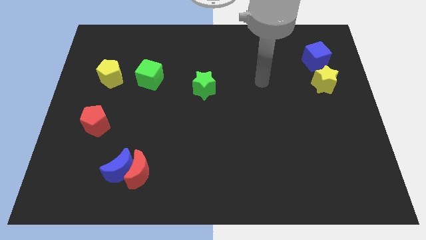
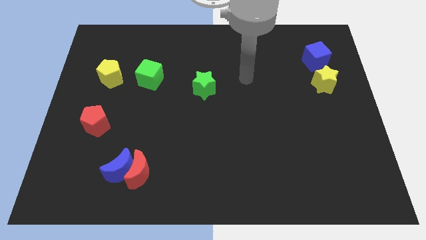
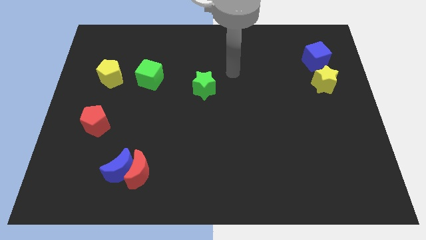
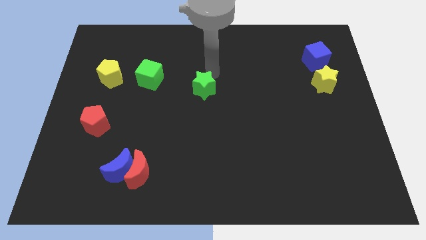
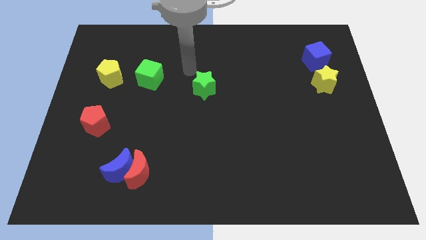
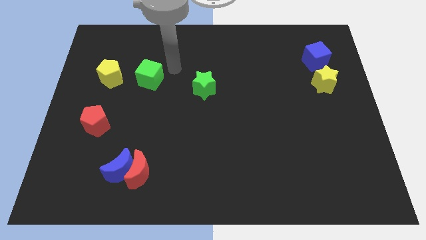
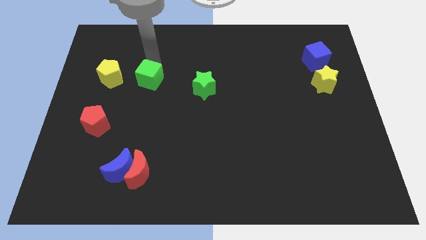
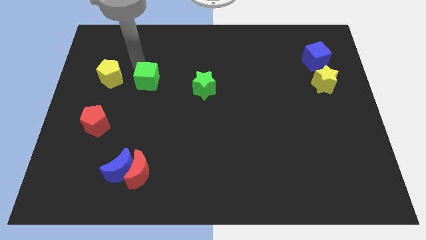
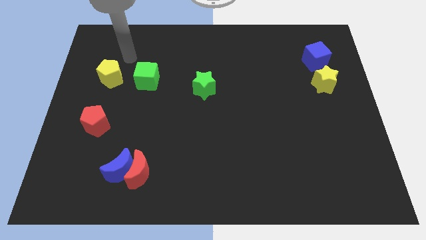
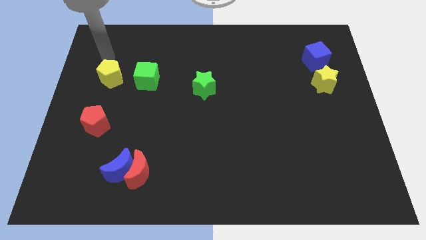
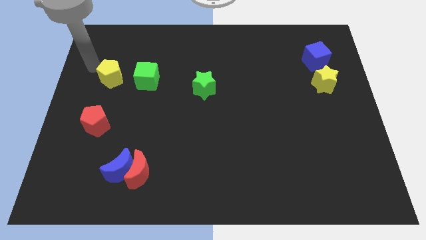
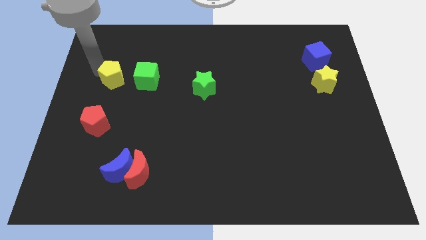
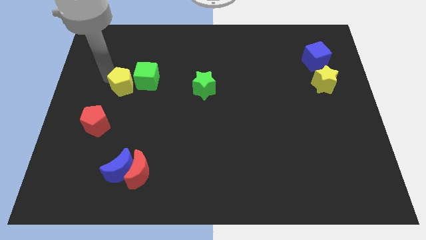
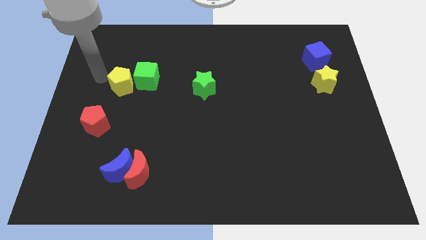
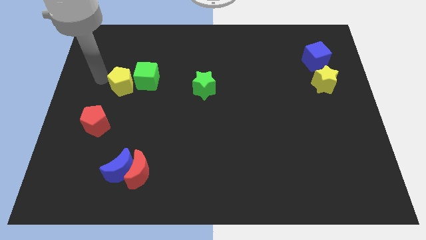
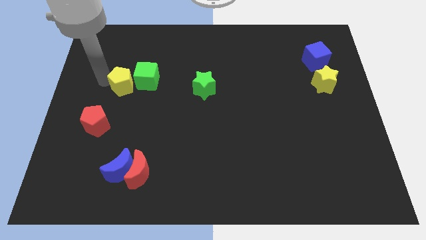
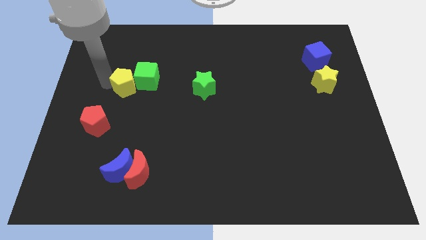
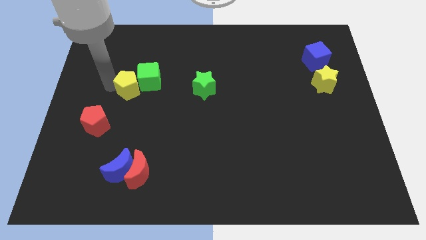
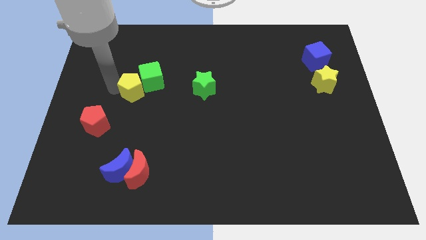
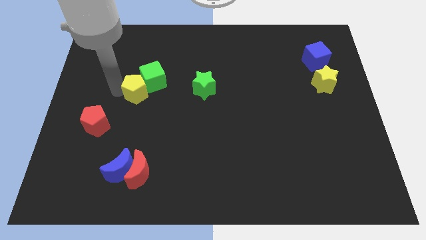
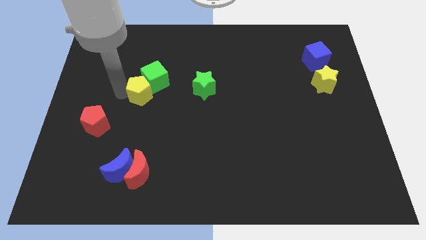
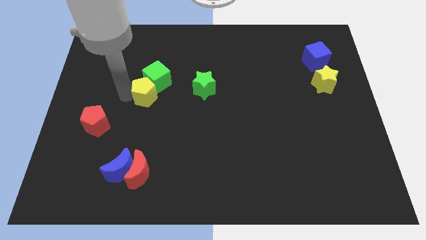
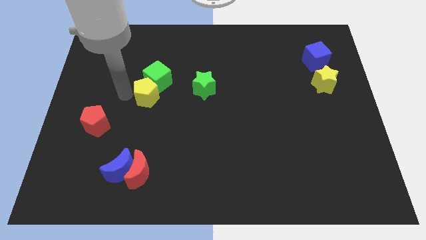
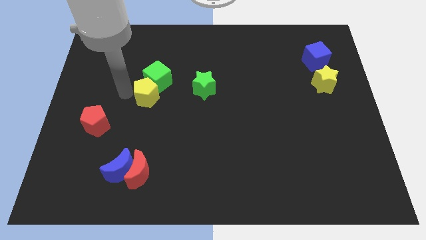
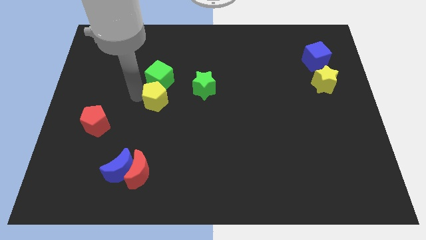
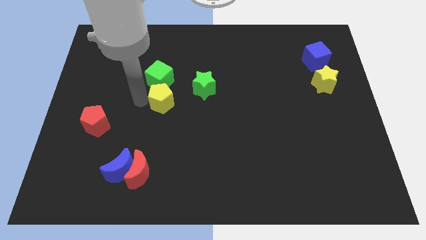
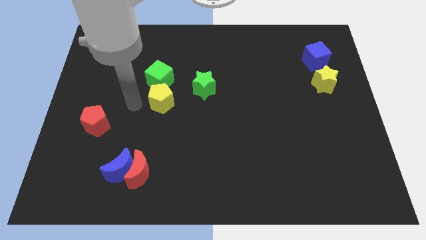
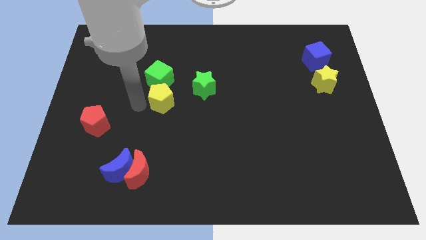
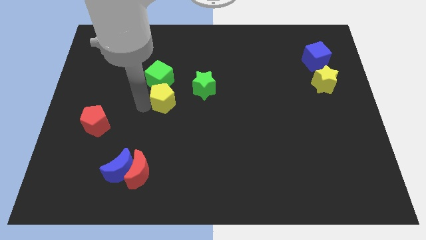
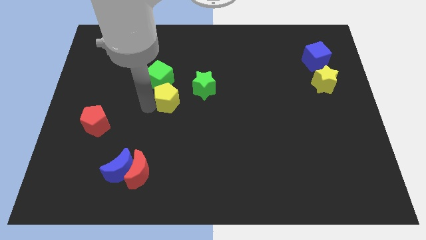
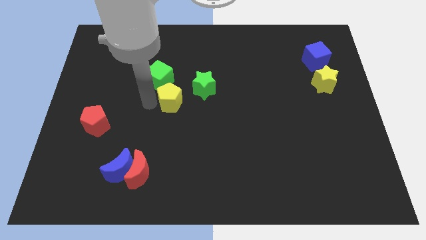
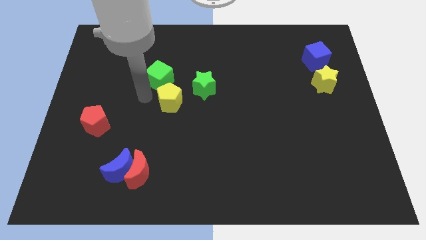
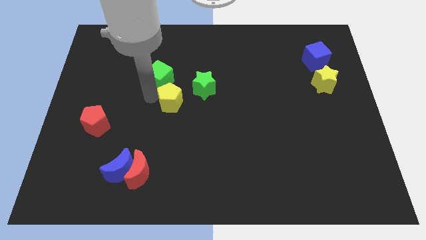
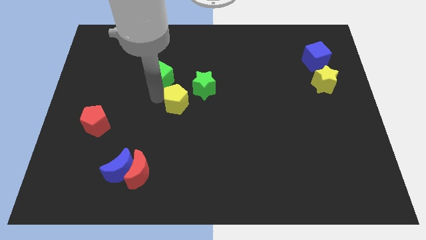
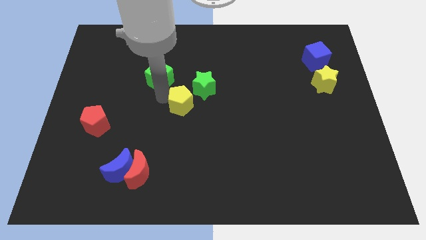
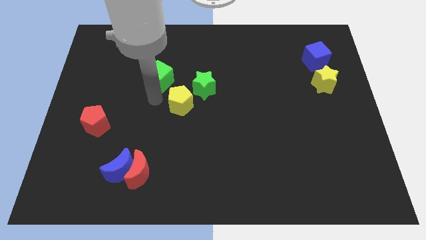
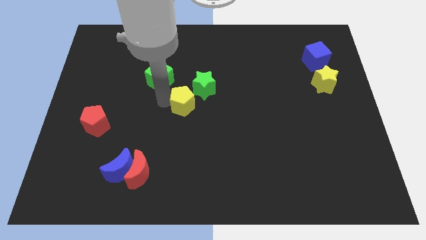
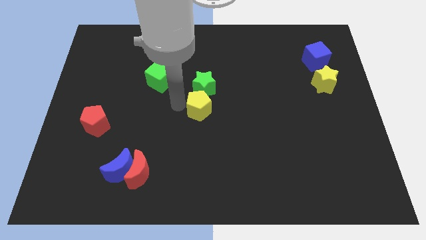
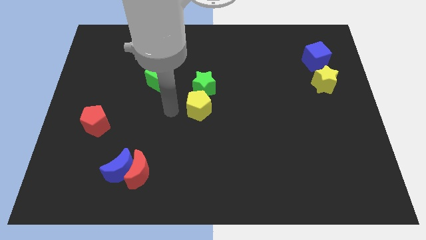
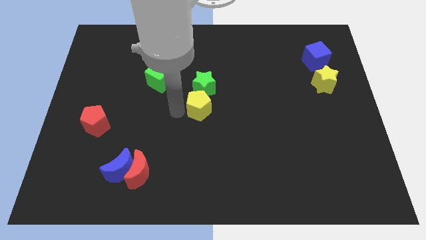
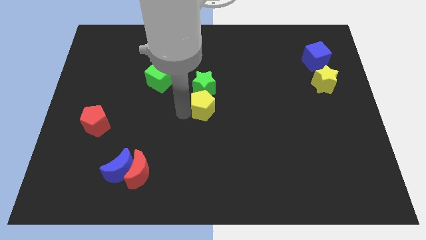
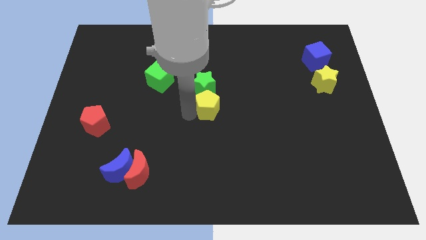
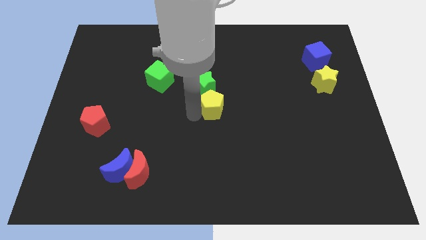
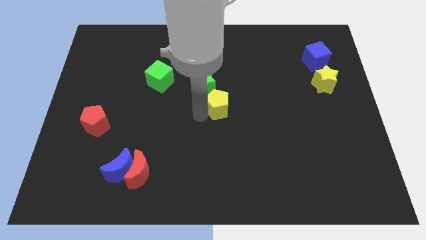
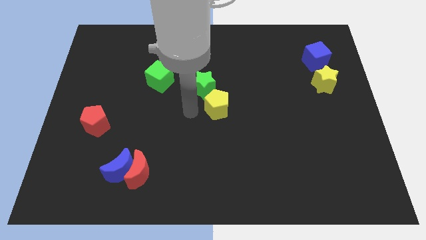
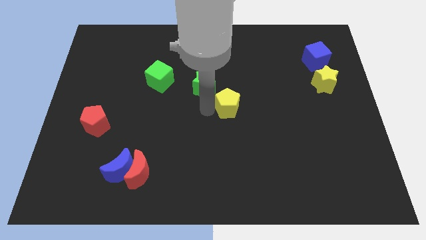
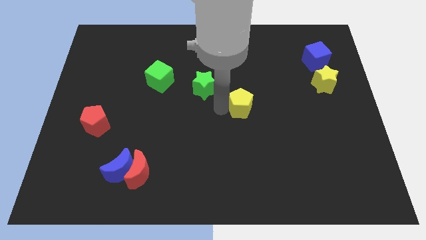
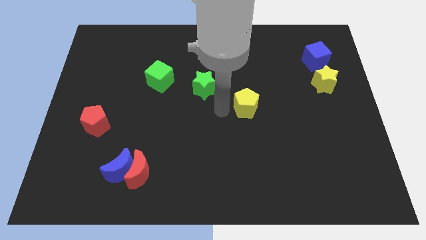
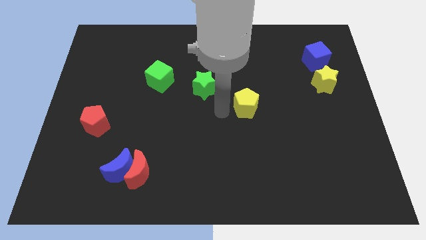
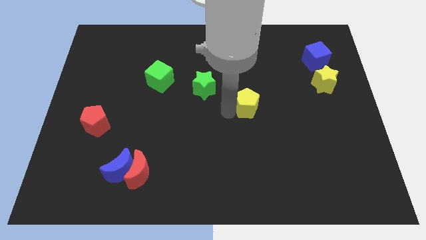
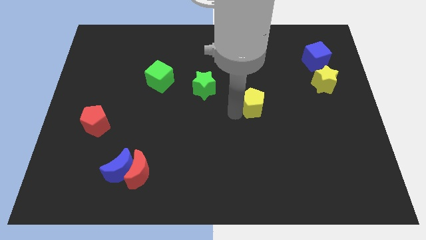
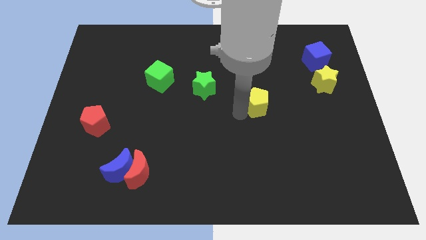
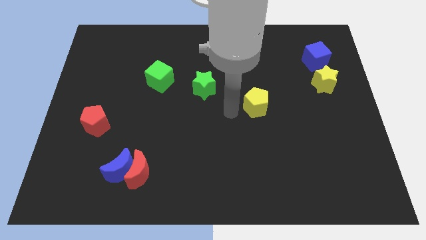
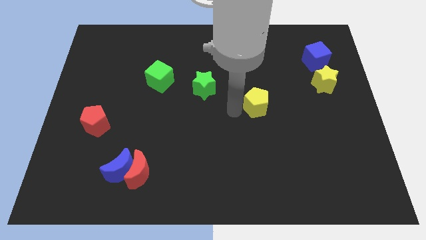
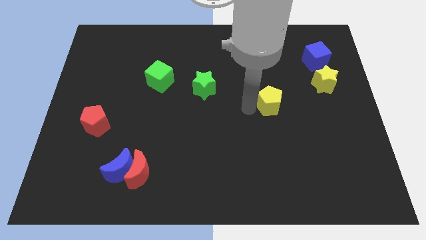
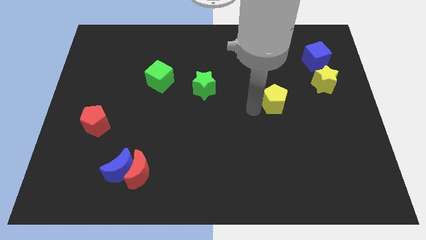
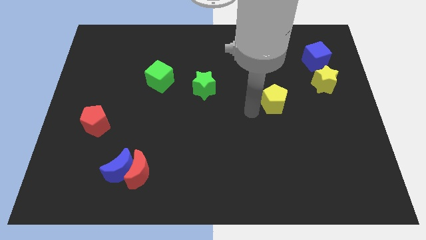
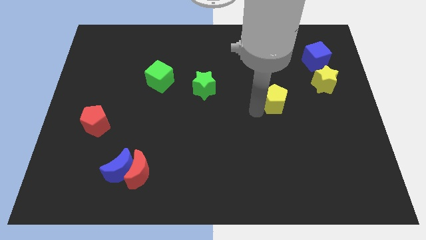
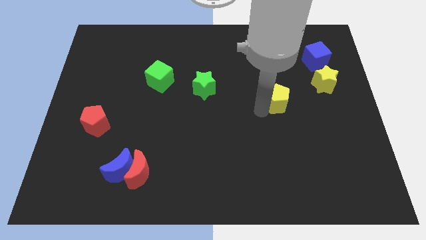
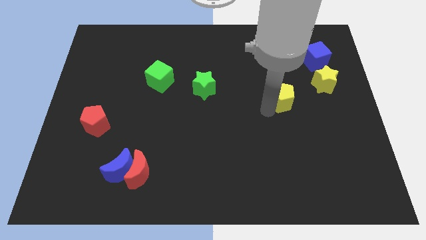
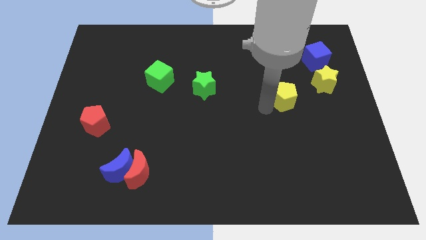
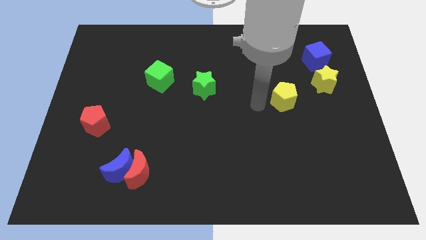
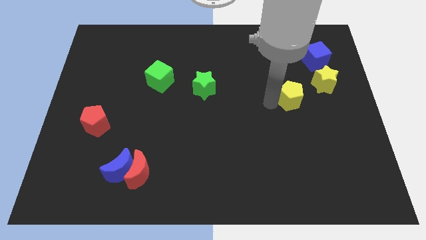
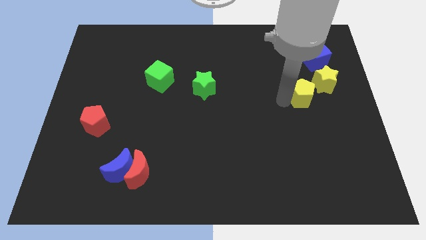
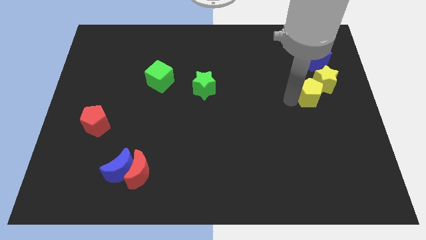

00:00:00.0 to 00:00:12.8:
push the yellow pentagon below the blue cube

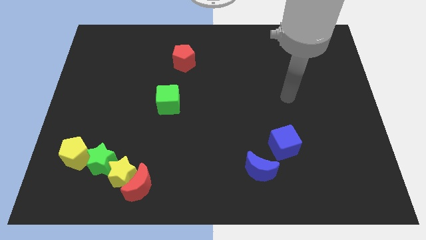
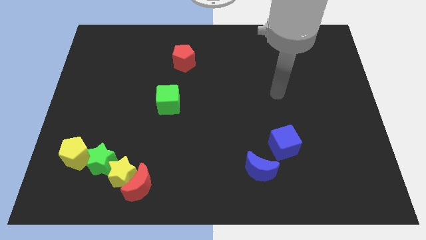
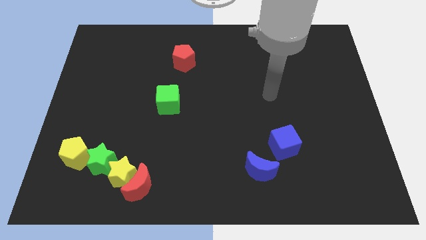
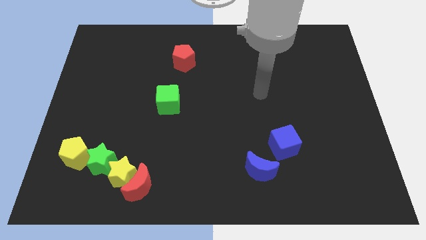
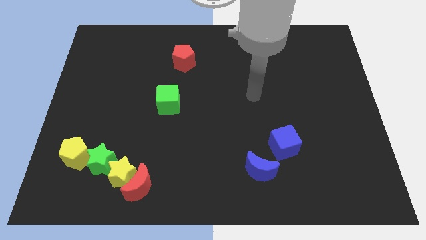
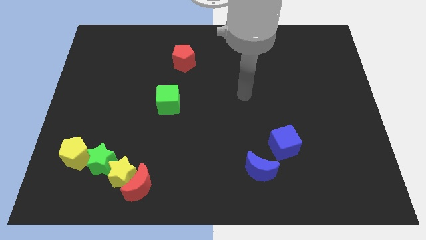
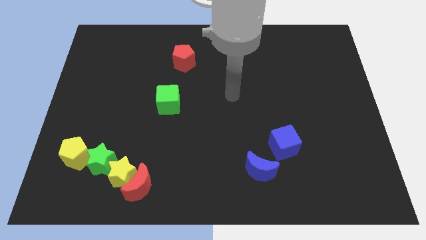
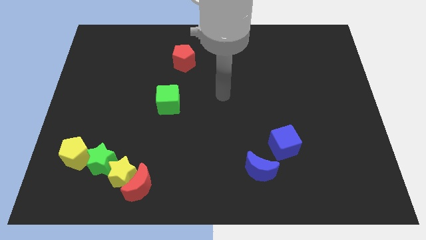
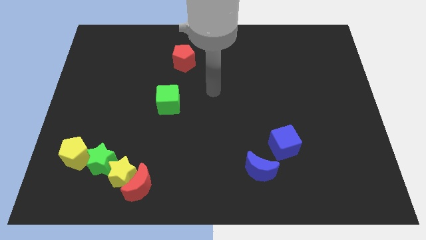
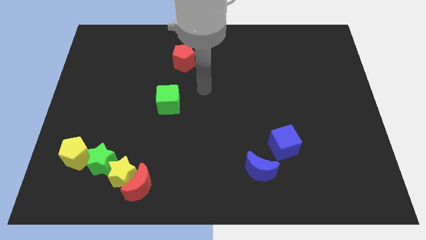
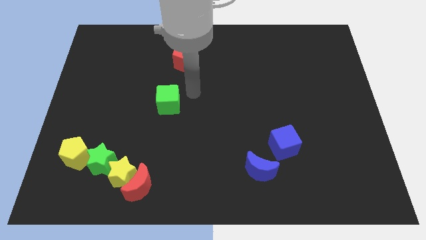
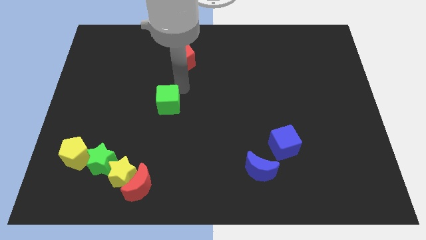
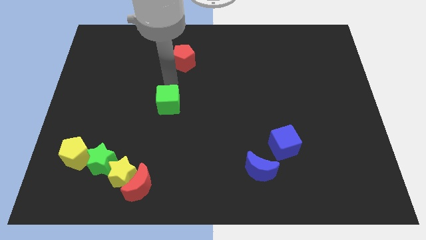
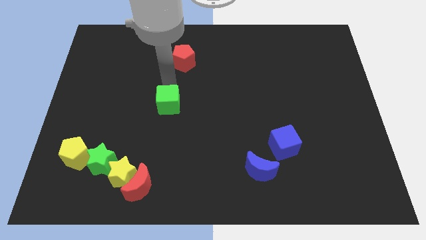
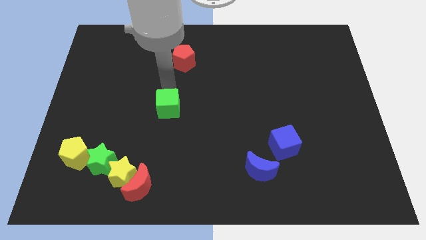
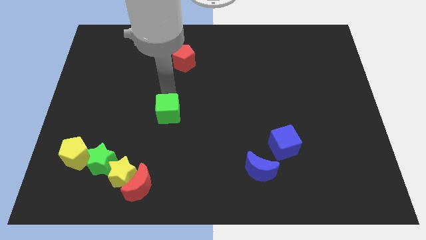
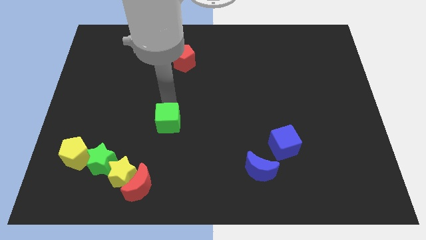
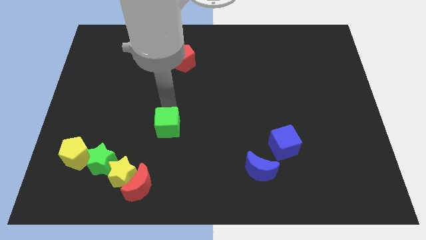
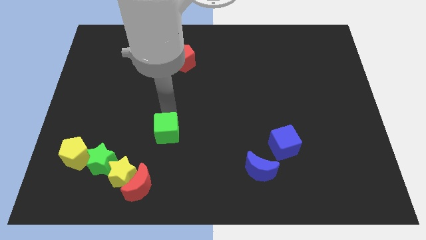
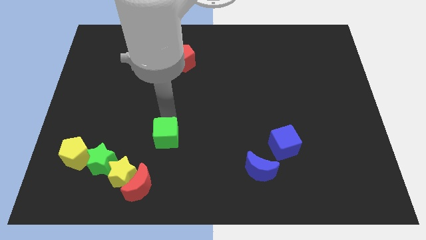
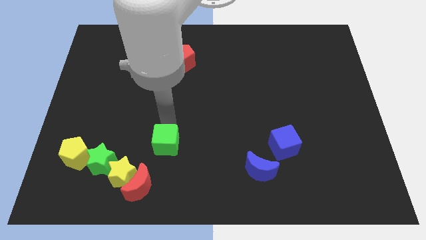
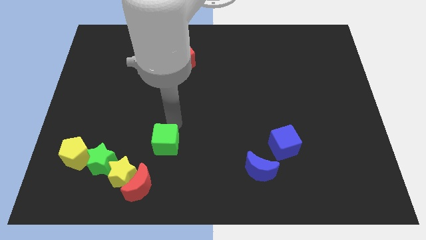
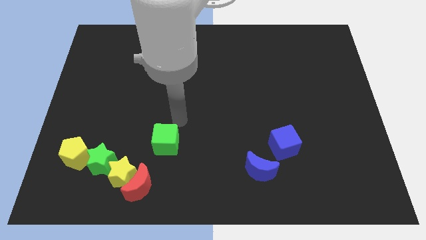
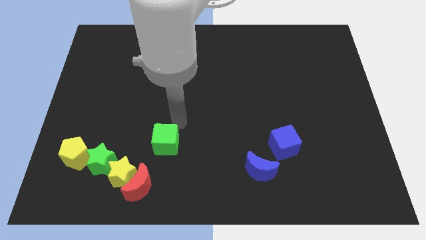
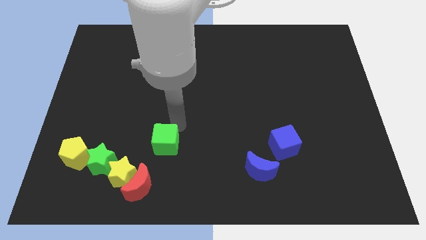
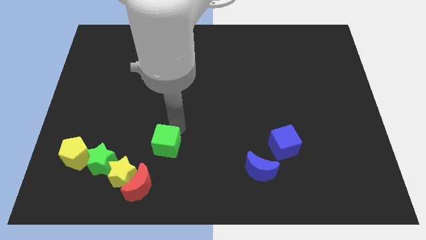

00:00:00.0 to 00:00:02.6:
push the green cube right of the green star
